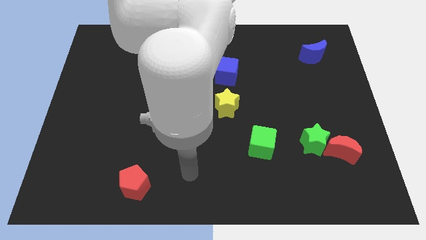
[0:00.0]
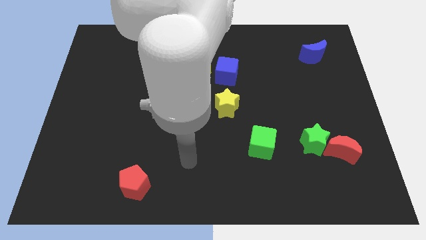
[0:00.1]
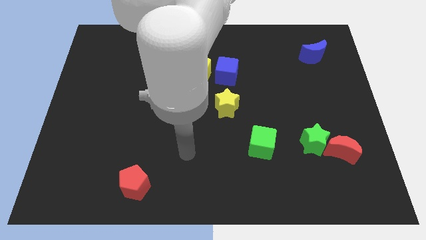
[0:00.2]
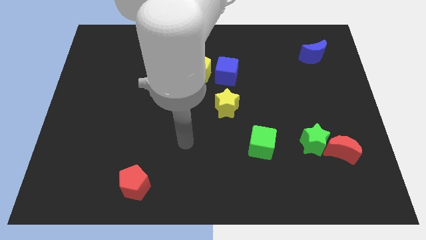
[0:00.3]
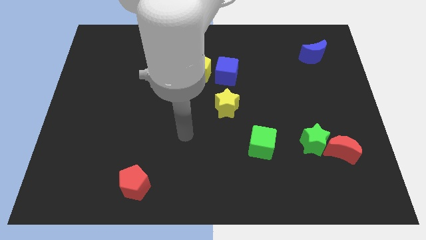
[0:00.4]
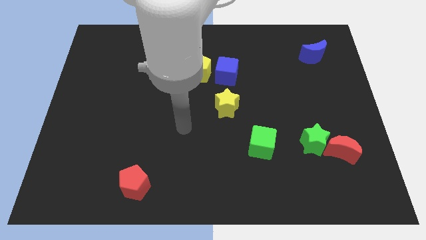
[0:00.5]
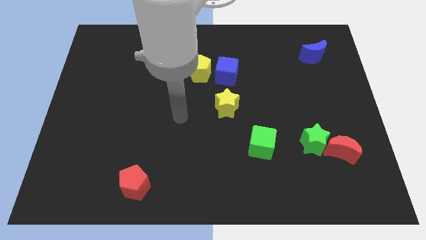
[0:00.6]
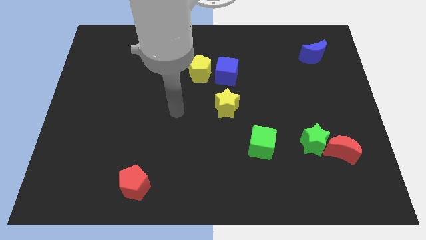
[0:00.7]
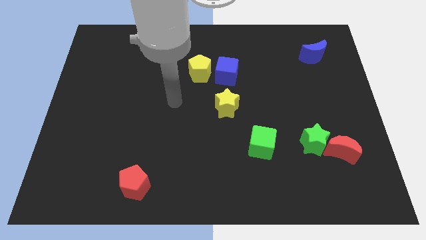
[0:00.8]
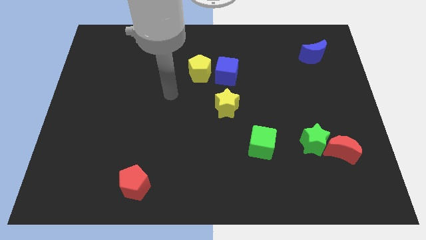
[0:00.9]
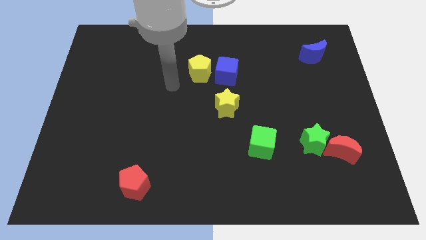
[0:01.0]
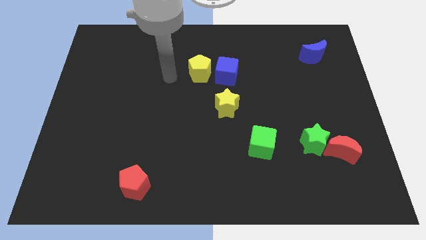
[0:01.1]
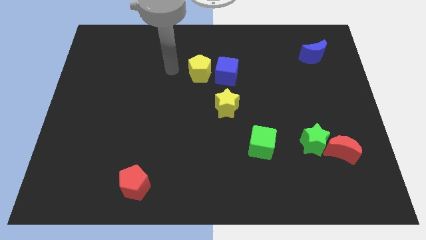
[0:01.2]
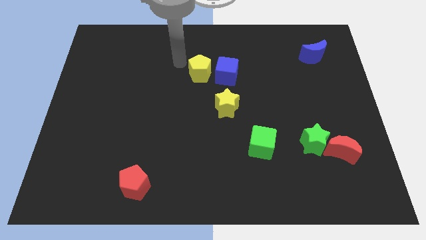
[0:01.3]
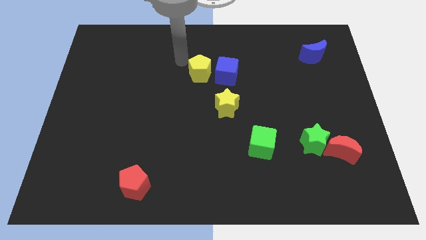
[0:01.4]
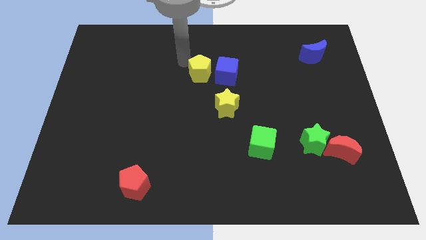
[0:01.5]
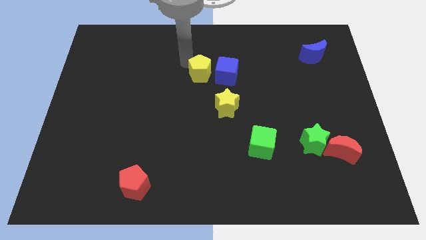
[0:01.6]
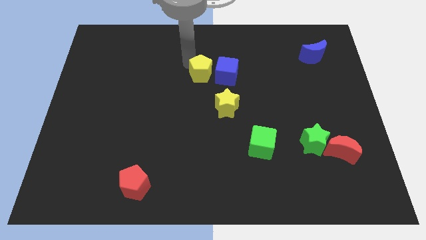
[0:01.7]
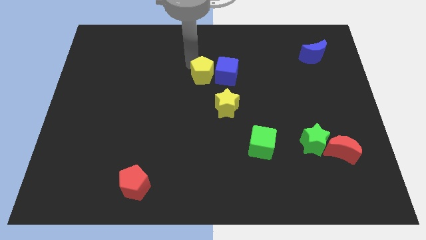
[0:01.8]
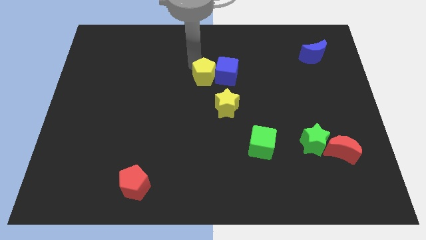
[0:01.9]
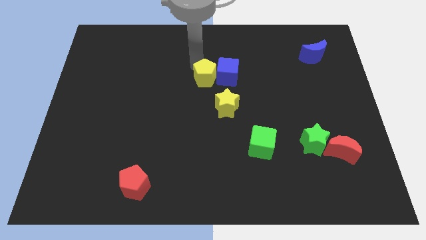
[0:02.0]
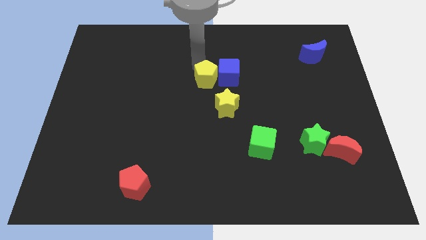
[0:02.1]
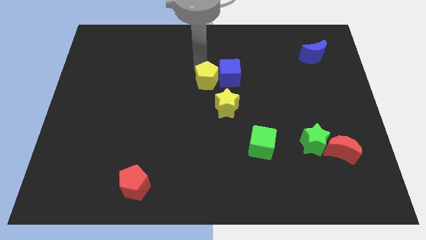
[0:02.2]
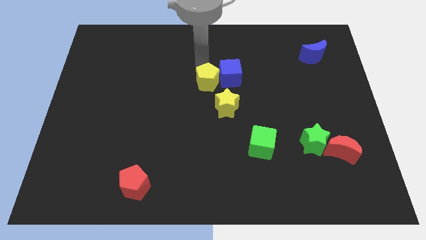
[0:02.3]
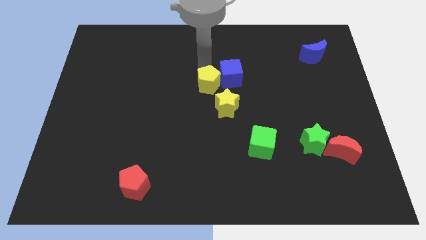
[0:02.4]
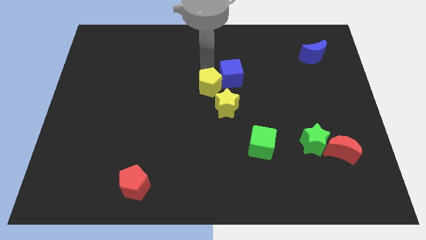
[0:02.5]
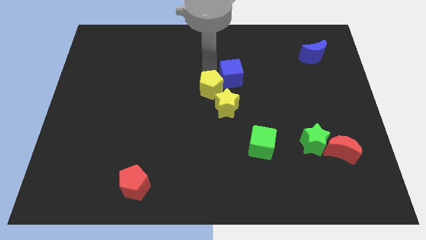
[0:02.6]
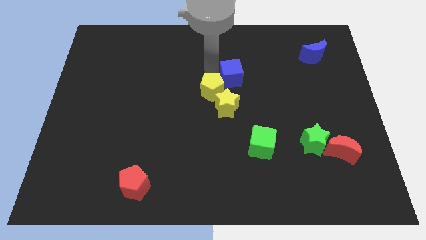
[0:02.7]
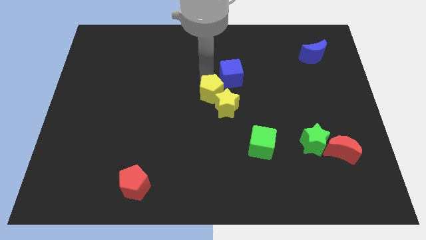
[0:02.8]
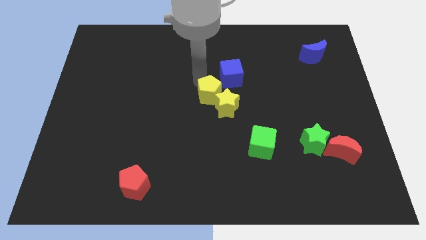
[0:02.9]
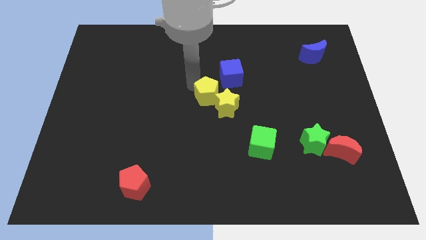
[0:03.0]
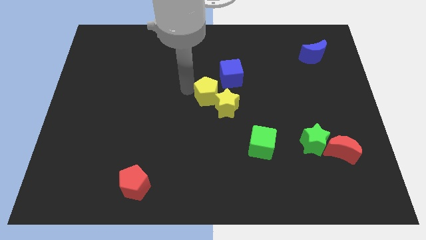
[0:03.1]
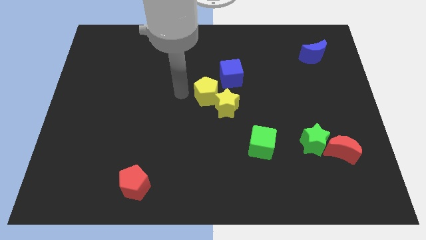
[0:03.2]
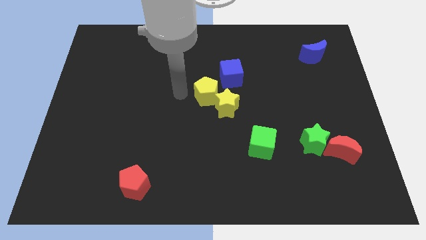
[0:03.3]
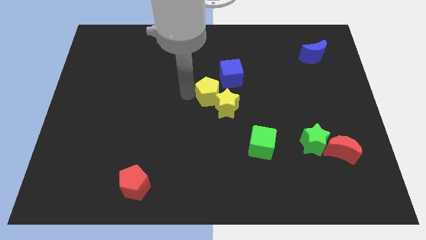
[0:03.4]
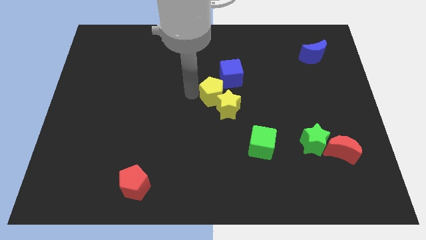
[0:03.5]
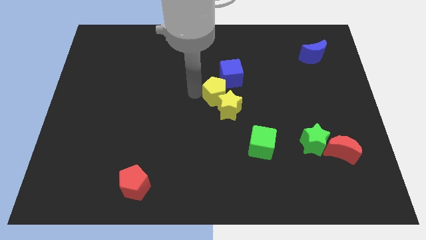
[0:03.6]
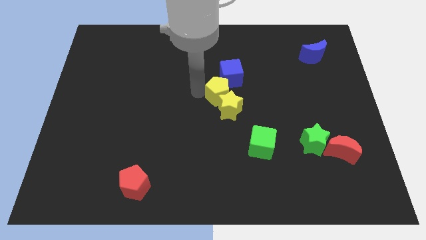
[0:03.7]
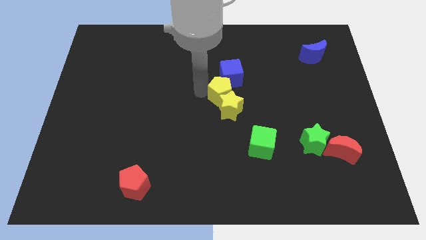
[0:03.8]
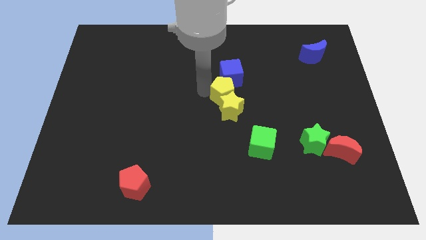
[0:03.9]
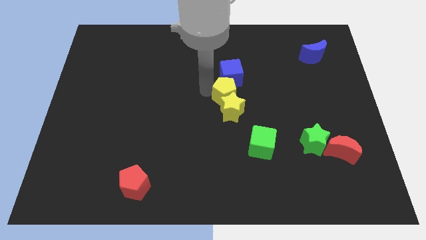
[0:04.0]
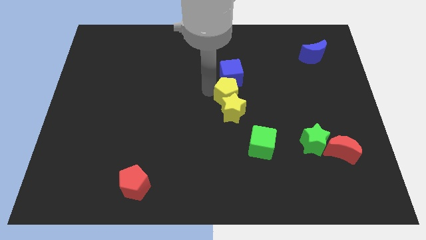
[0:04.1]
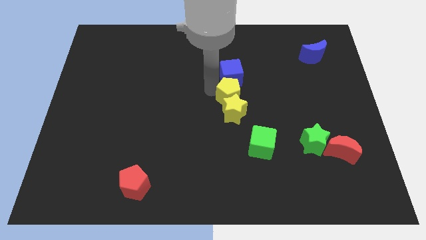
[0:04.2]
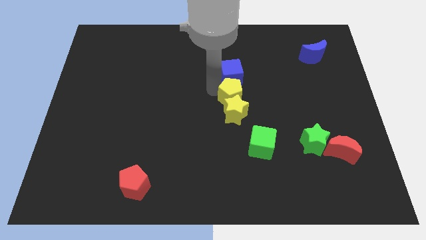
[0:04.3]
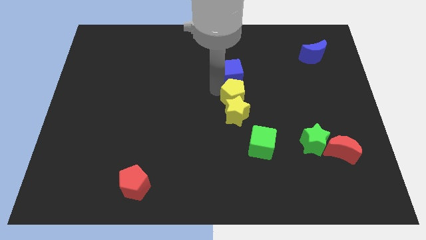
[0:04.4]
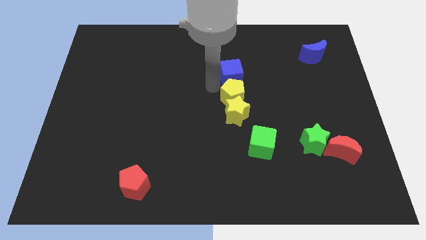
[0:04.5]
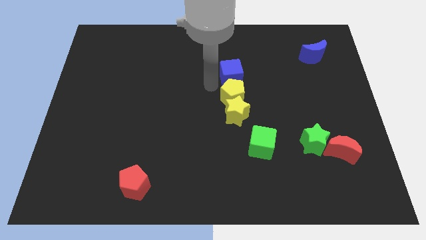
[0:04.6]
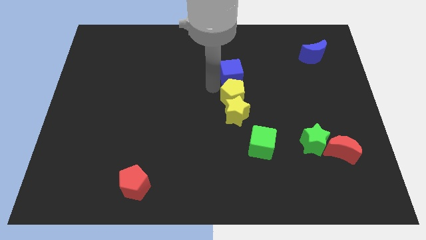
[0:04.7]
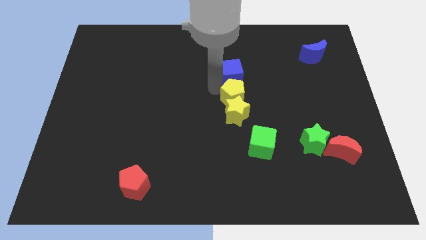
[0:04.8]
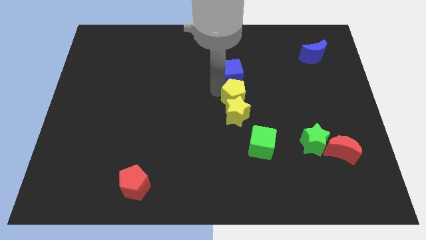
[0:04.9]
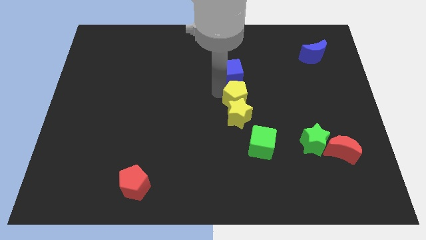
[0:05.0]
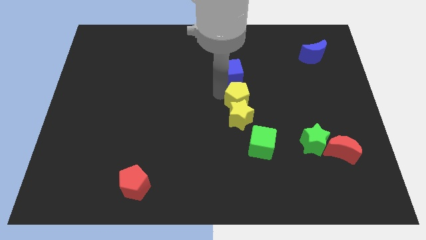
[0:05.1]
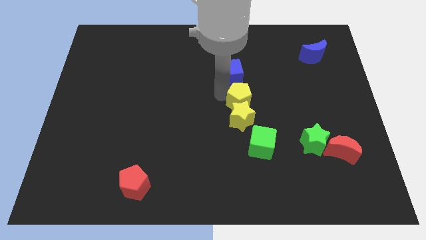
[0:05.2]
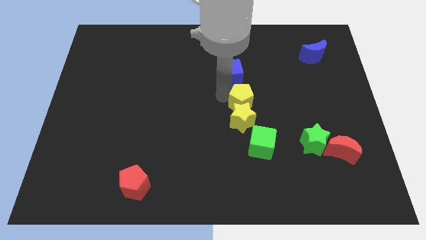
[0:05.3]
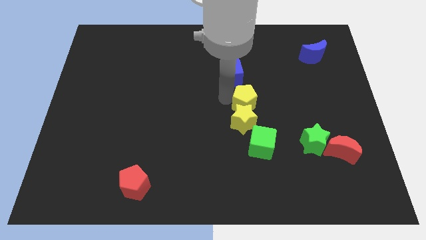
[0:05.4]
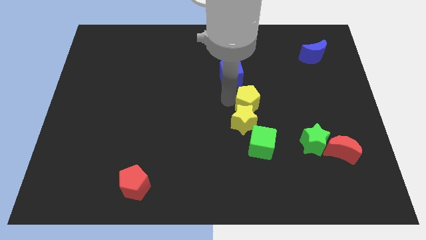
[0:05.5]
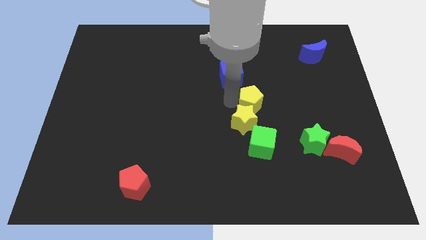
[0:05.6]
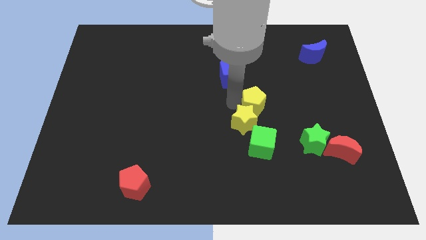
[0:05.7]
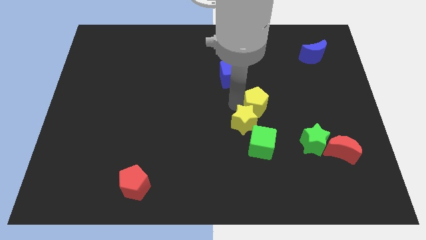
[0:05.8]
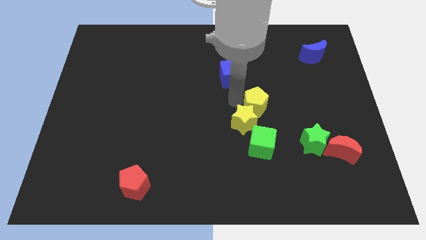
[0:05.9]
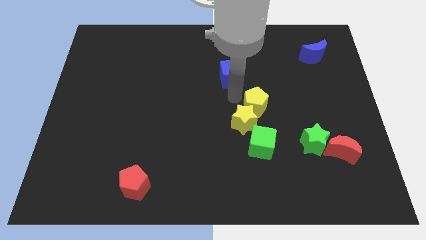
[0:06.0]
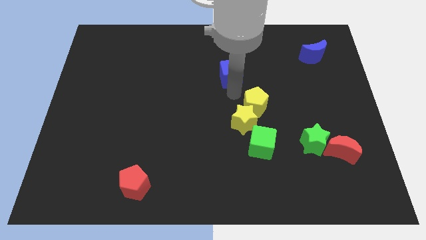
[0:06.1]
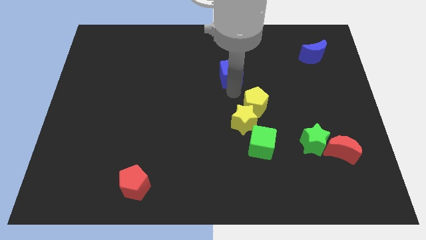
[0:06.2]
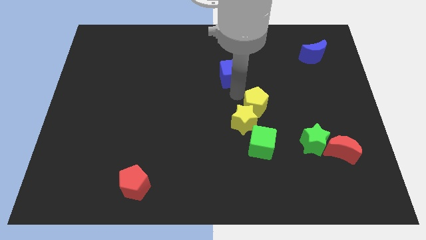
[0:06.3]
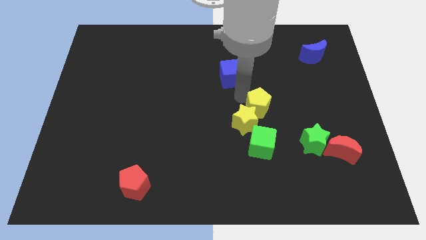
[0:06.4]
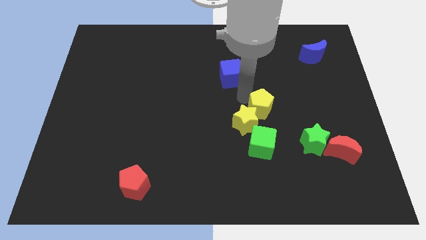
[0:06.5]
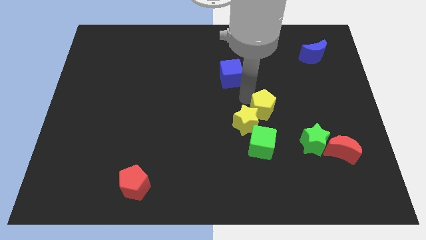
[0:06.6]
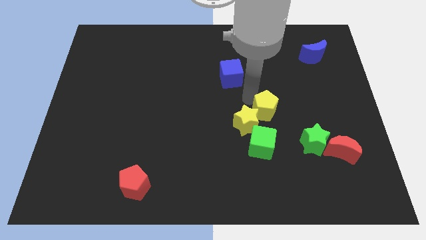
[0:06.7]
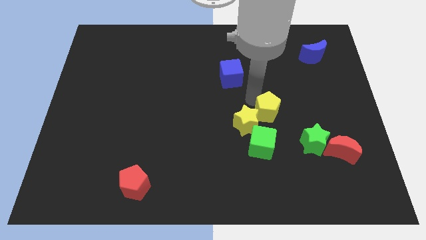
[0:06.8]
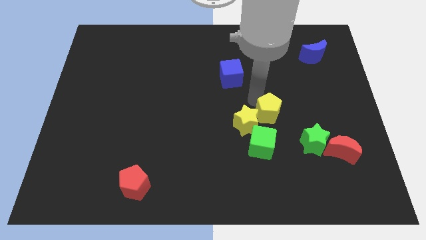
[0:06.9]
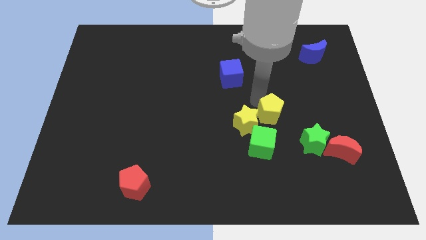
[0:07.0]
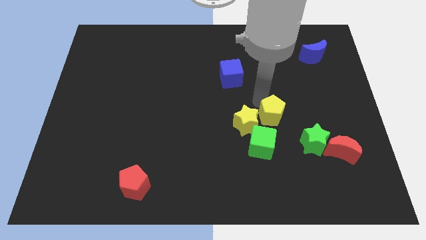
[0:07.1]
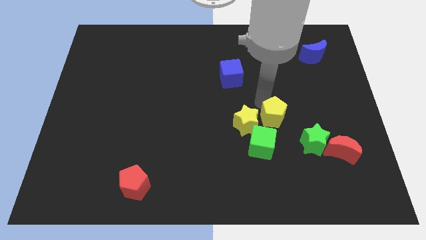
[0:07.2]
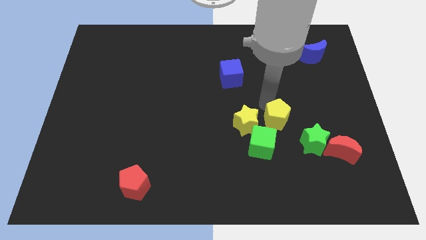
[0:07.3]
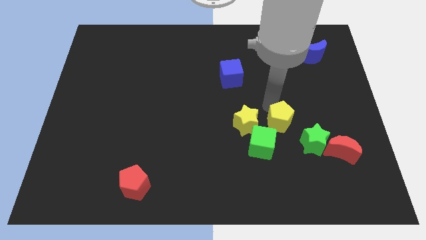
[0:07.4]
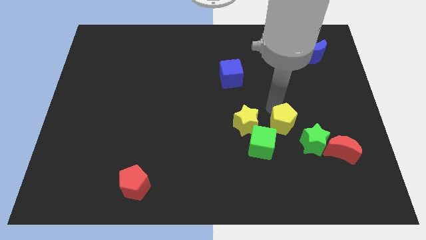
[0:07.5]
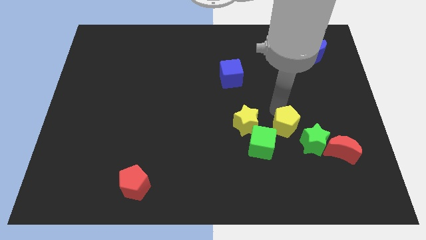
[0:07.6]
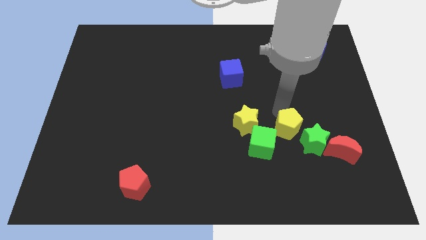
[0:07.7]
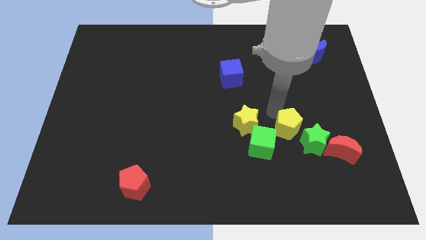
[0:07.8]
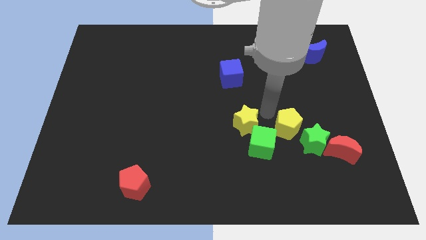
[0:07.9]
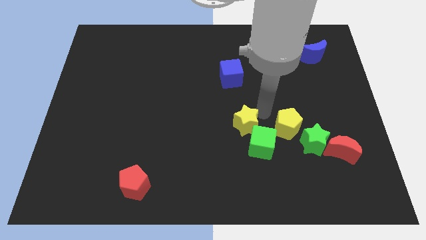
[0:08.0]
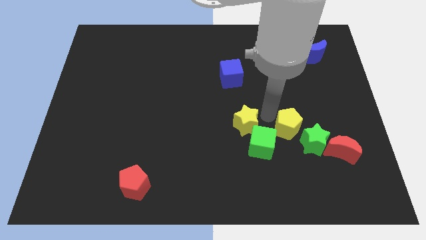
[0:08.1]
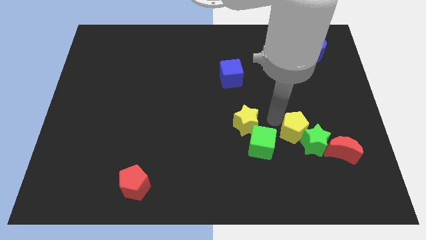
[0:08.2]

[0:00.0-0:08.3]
move the yellow pentagon towards the green star
